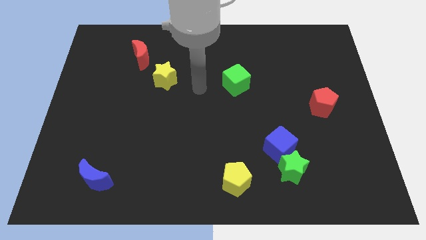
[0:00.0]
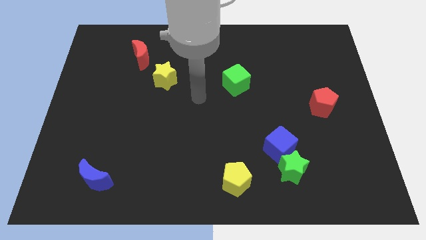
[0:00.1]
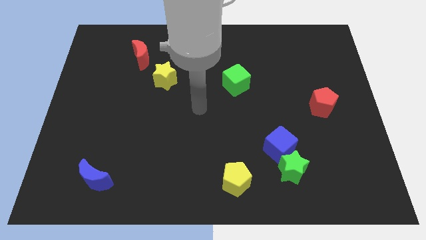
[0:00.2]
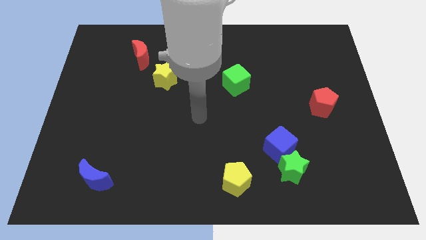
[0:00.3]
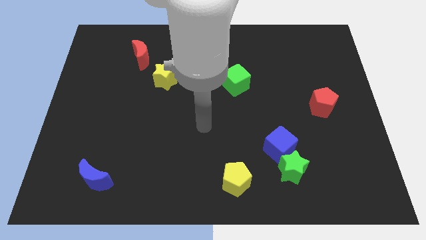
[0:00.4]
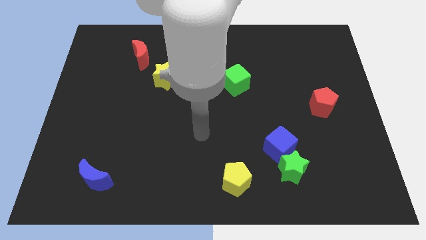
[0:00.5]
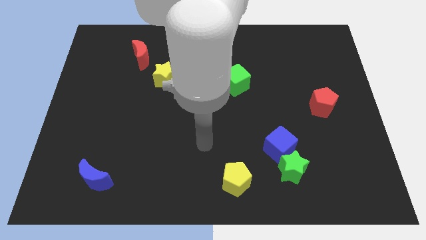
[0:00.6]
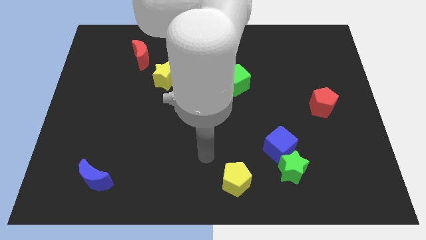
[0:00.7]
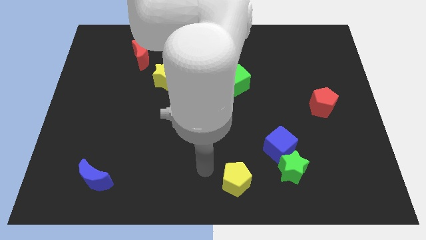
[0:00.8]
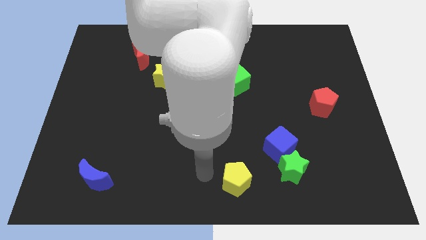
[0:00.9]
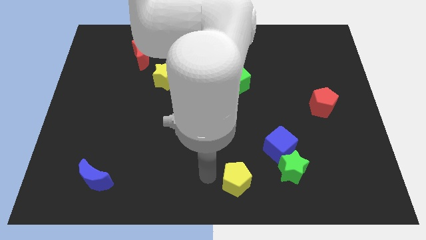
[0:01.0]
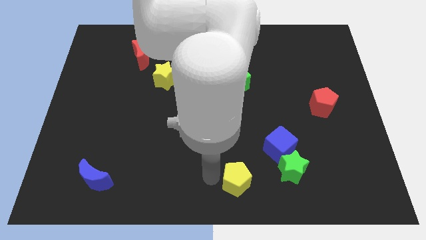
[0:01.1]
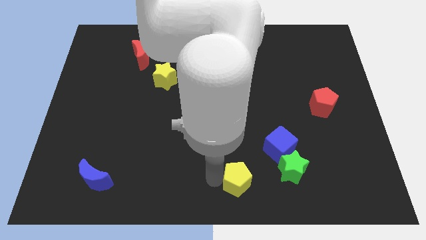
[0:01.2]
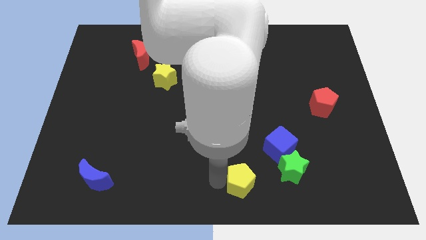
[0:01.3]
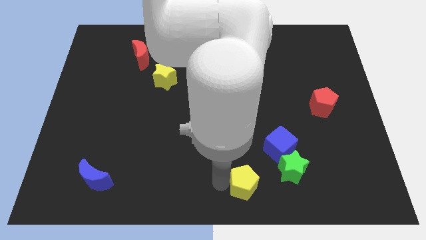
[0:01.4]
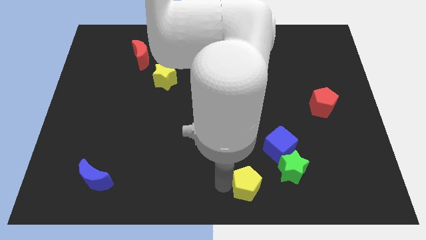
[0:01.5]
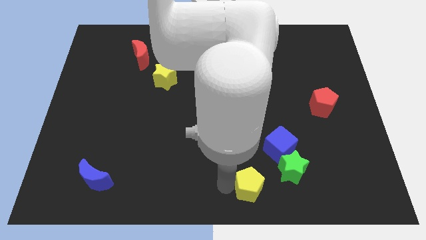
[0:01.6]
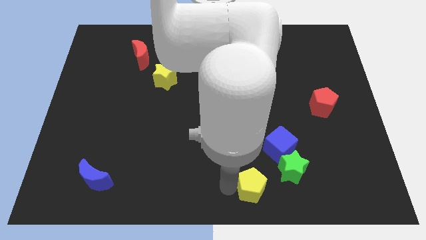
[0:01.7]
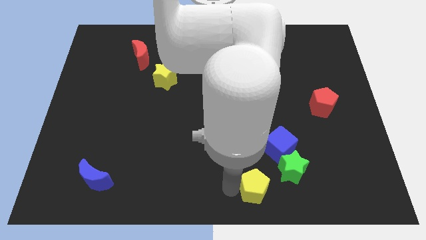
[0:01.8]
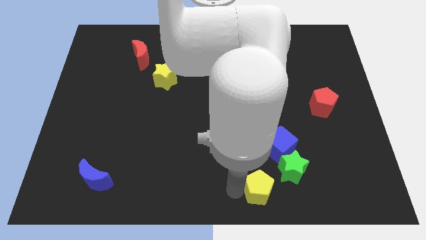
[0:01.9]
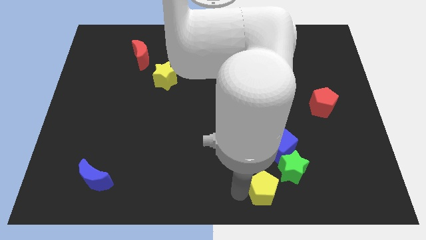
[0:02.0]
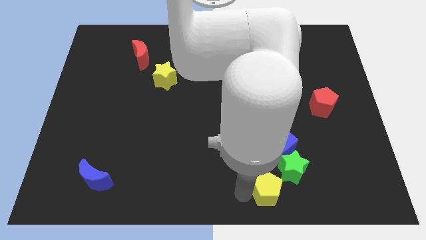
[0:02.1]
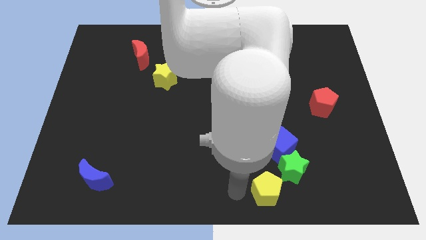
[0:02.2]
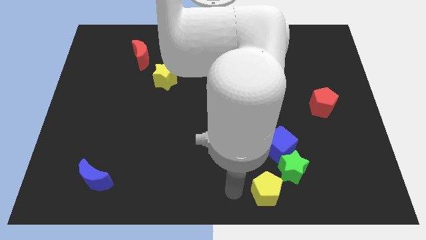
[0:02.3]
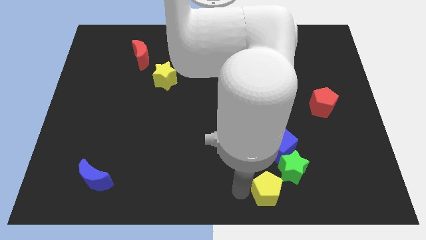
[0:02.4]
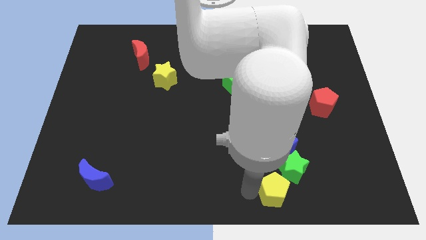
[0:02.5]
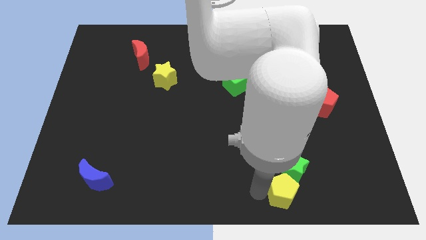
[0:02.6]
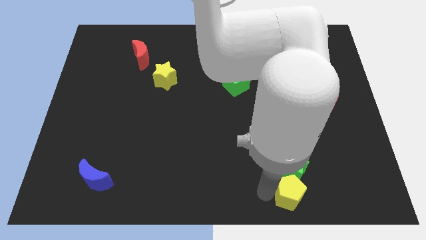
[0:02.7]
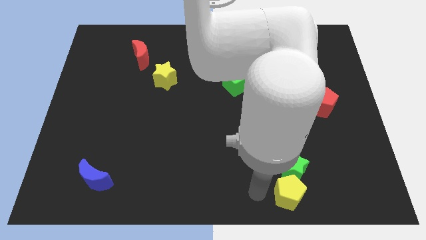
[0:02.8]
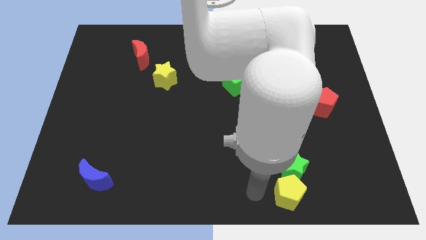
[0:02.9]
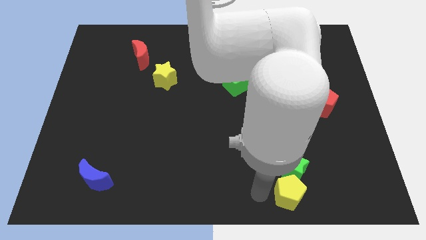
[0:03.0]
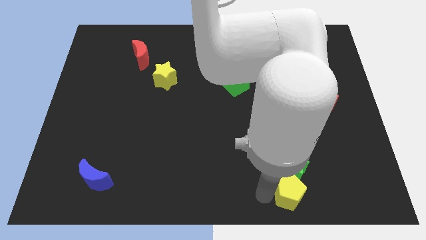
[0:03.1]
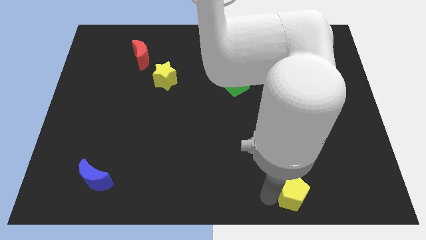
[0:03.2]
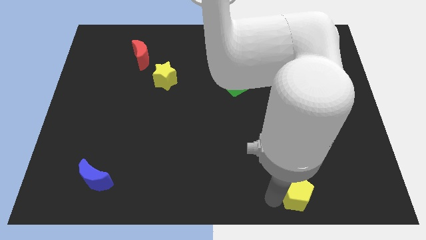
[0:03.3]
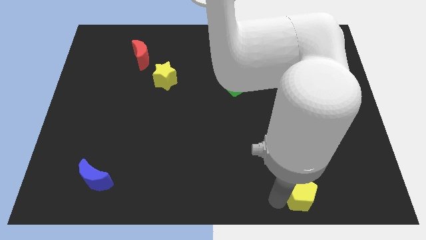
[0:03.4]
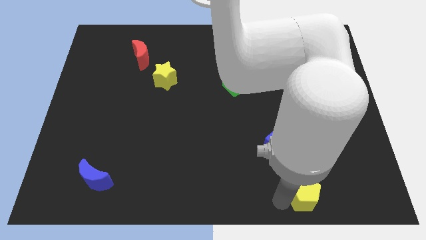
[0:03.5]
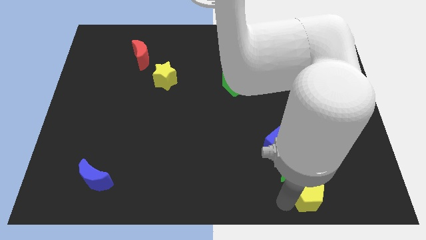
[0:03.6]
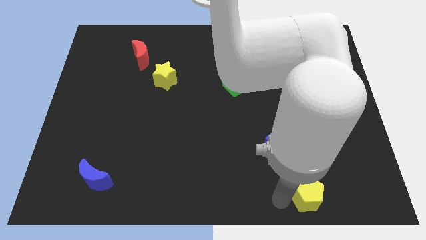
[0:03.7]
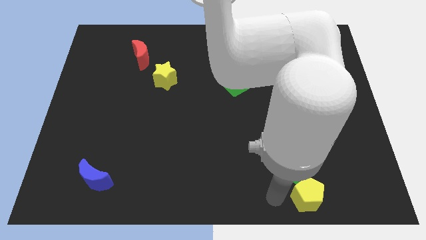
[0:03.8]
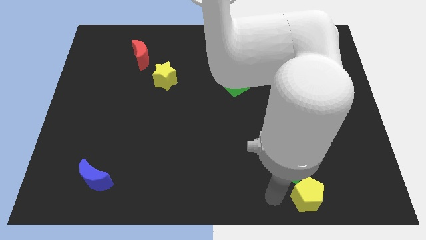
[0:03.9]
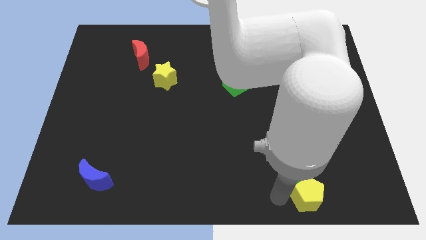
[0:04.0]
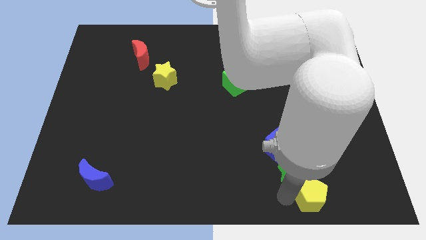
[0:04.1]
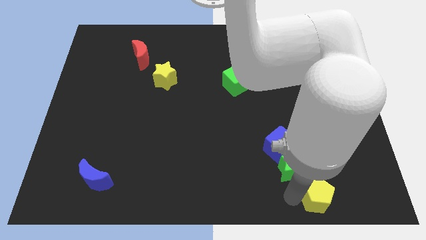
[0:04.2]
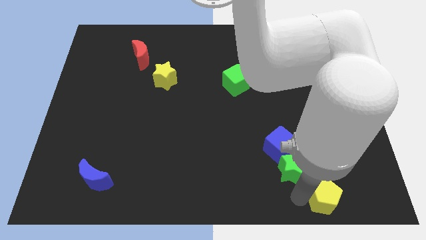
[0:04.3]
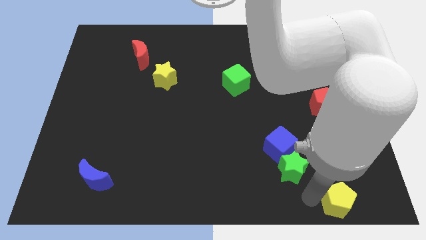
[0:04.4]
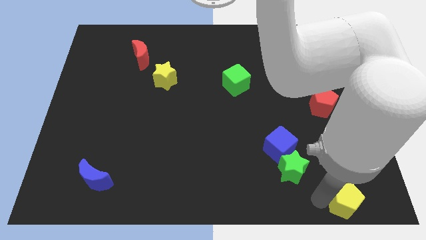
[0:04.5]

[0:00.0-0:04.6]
push the yellow pentagon to the bottom right corner

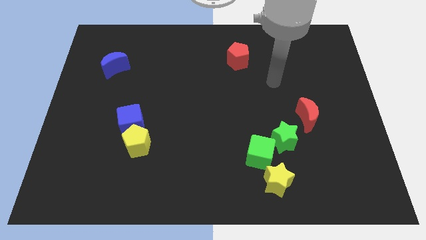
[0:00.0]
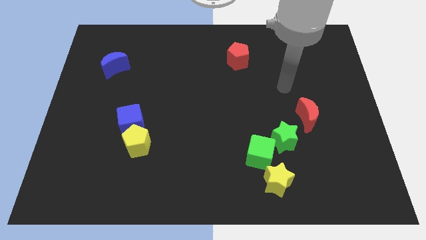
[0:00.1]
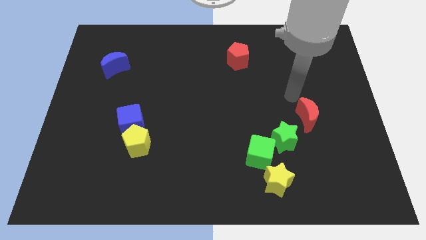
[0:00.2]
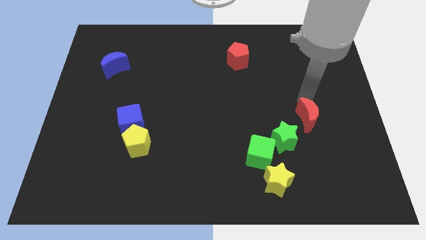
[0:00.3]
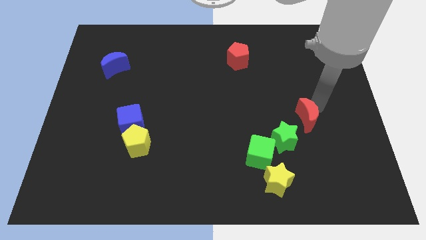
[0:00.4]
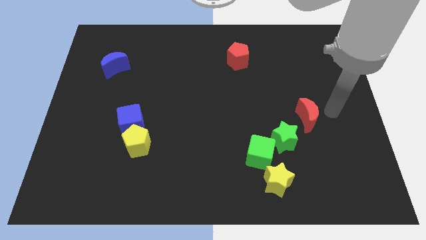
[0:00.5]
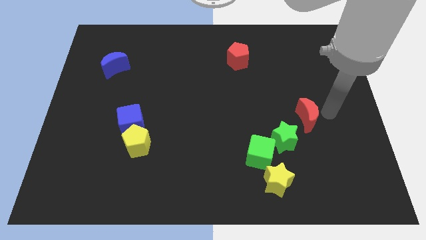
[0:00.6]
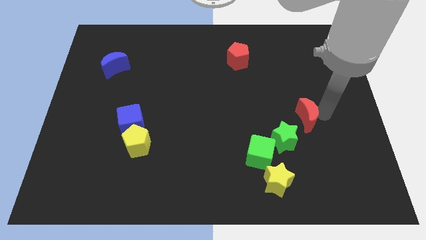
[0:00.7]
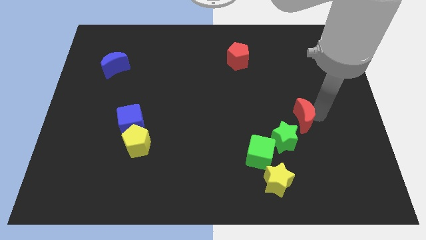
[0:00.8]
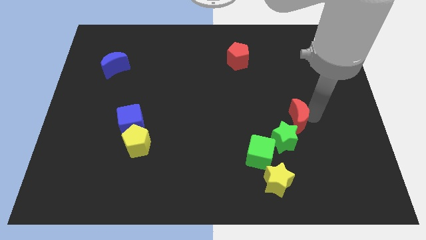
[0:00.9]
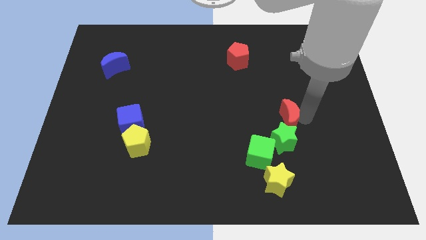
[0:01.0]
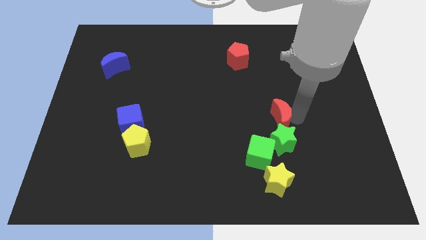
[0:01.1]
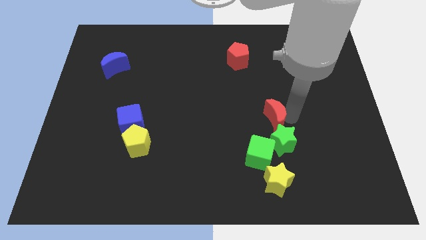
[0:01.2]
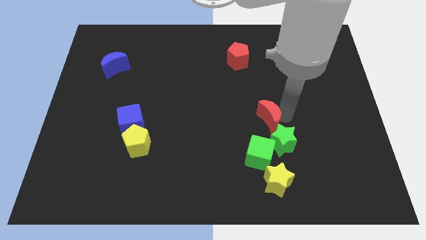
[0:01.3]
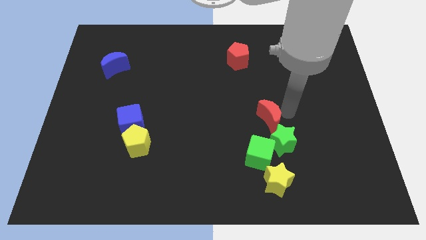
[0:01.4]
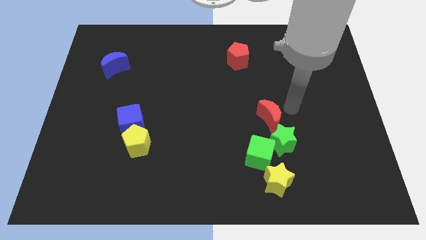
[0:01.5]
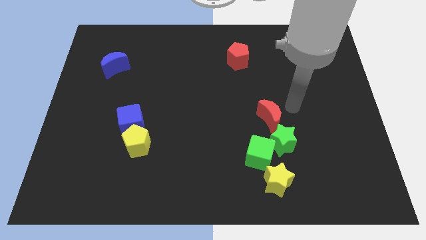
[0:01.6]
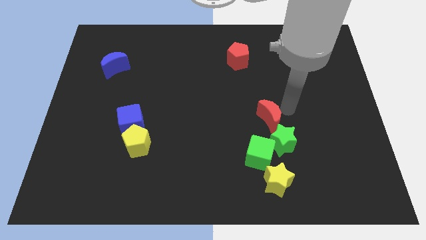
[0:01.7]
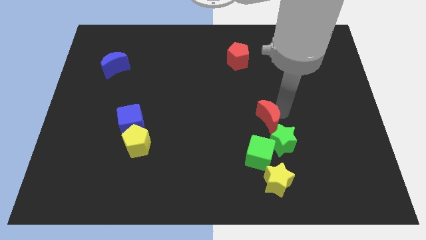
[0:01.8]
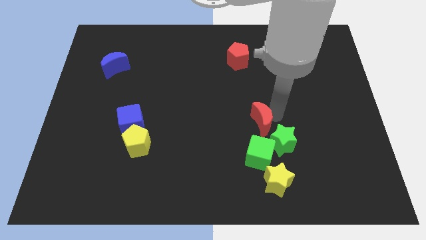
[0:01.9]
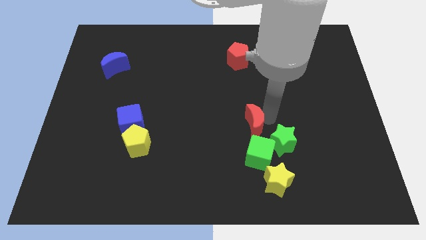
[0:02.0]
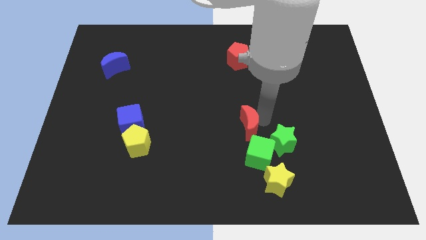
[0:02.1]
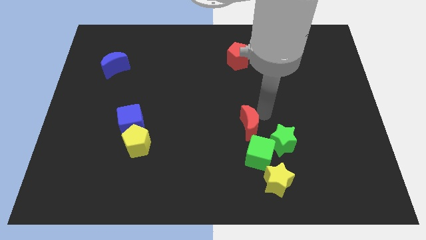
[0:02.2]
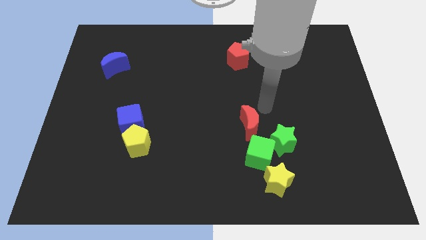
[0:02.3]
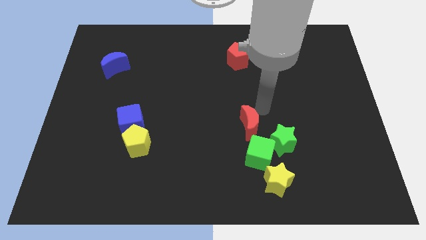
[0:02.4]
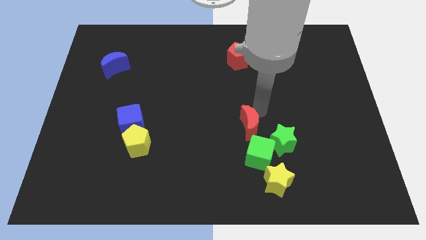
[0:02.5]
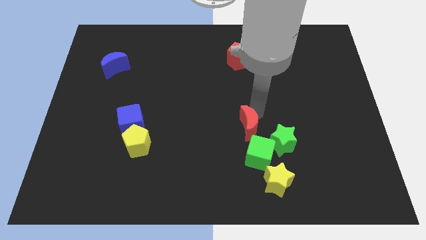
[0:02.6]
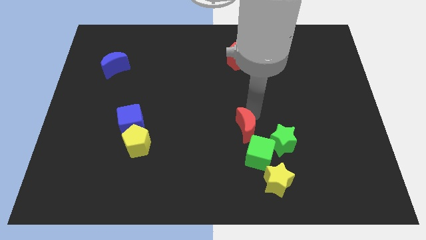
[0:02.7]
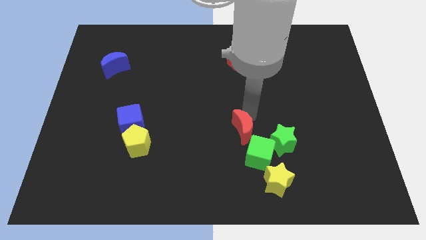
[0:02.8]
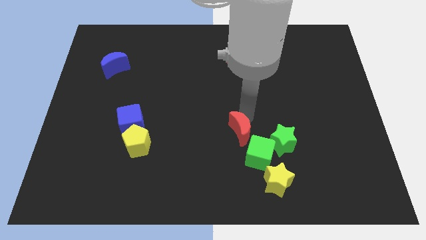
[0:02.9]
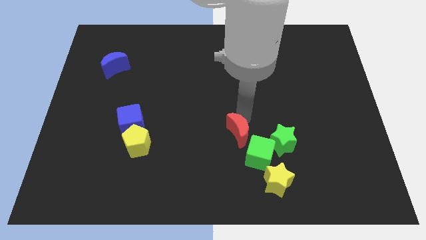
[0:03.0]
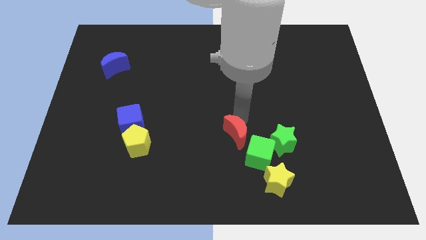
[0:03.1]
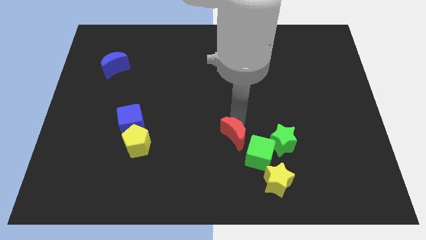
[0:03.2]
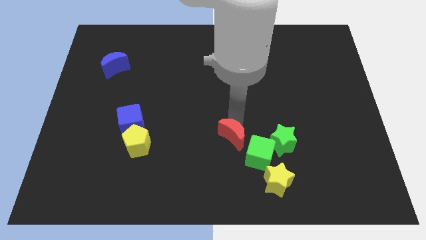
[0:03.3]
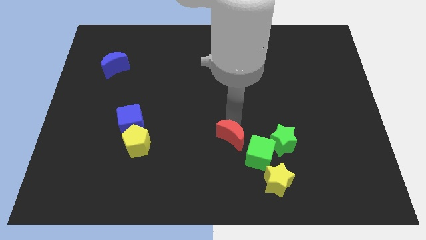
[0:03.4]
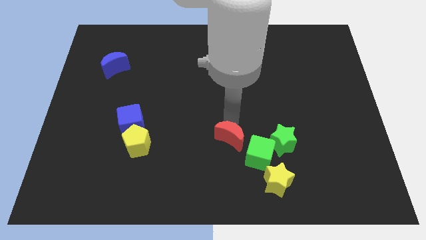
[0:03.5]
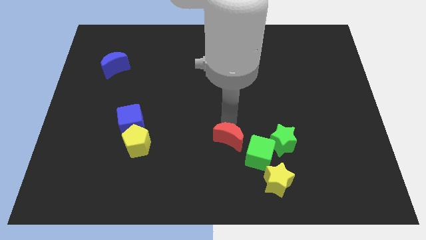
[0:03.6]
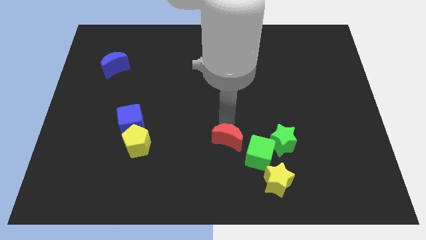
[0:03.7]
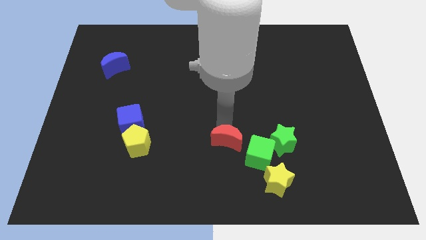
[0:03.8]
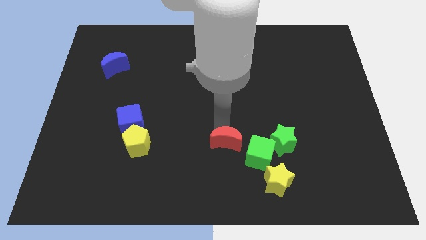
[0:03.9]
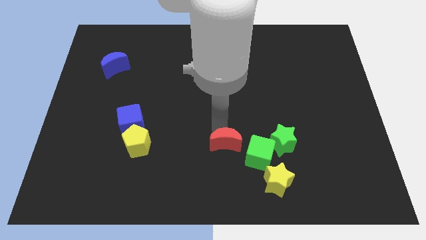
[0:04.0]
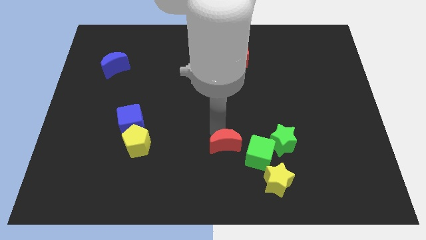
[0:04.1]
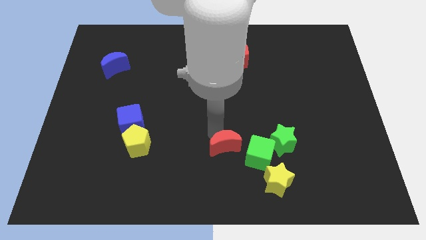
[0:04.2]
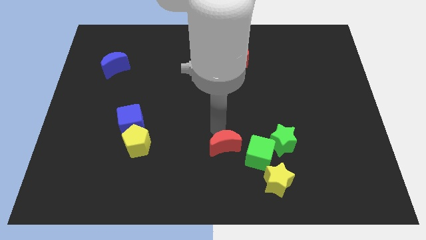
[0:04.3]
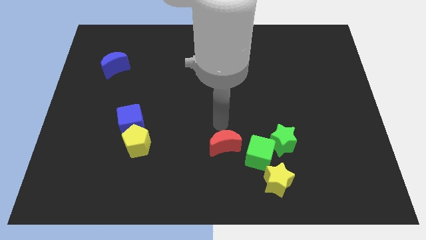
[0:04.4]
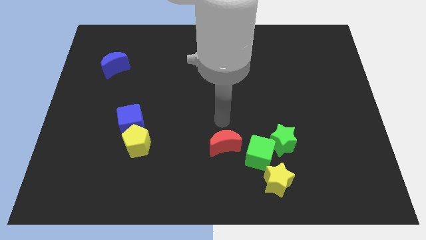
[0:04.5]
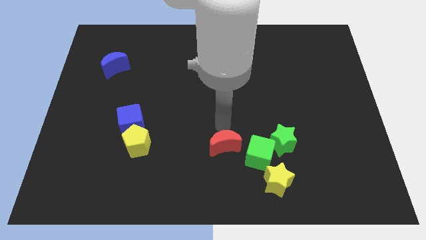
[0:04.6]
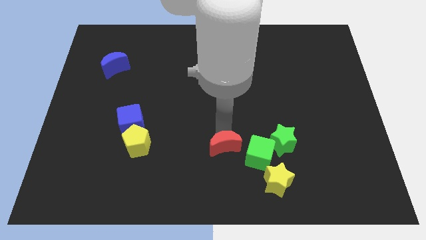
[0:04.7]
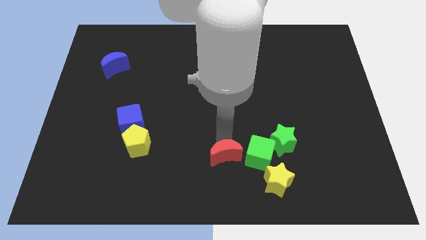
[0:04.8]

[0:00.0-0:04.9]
slide the red moon to the bottom
